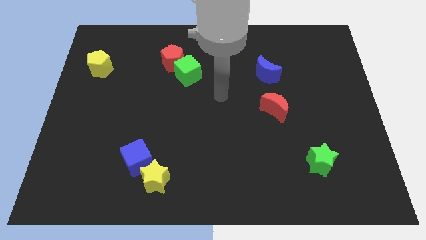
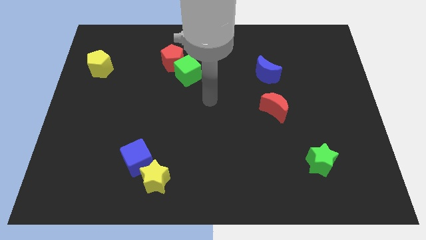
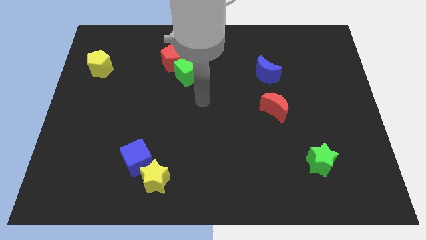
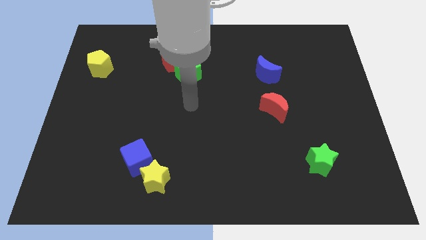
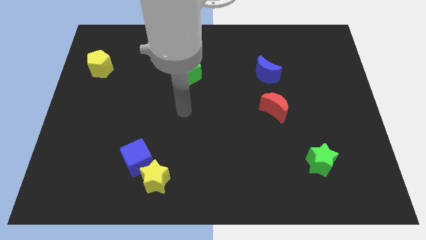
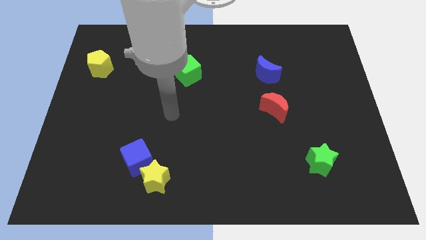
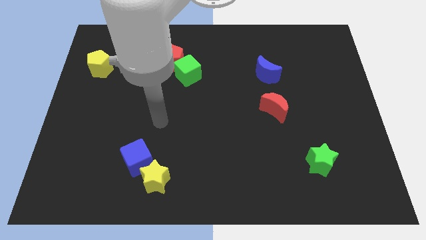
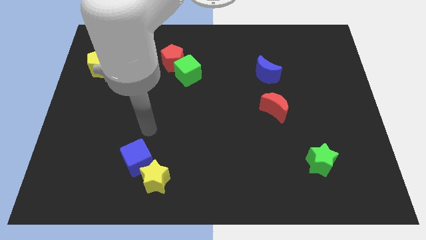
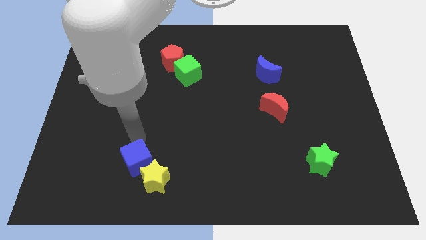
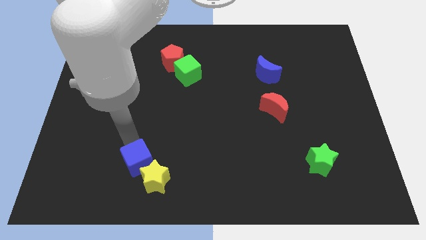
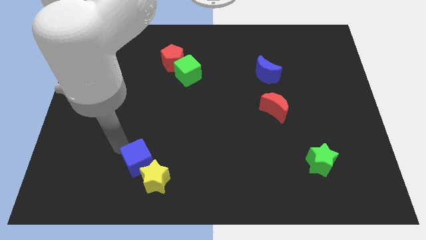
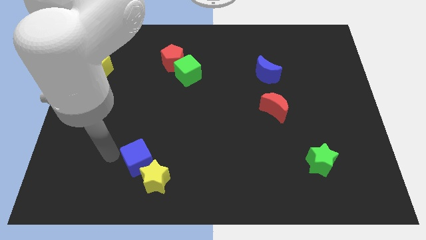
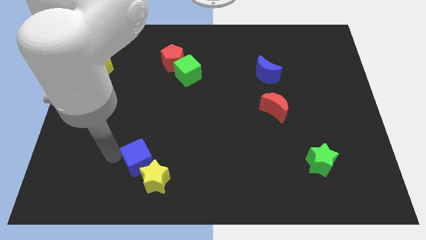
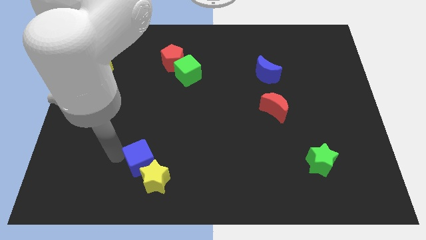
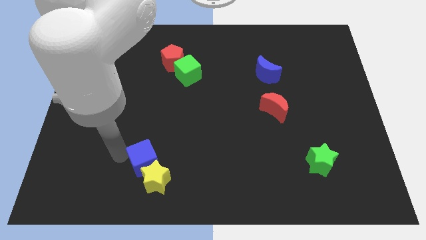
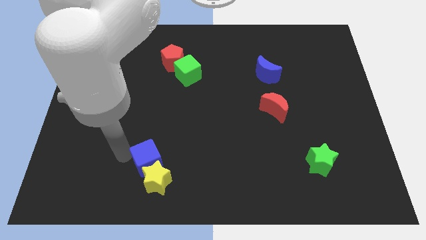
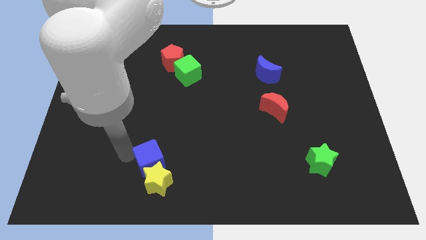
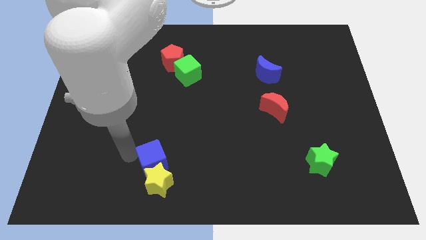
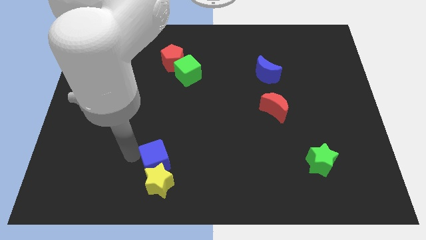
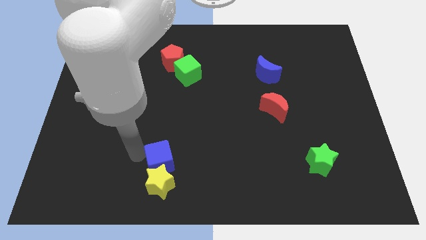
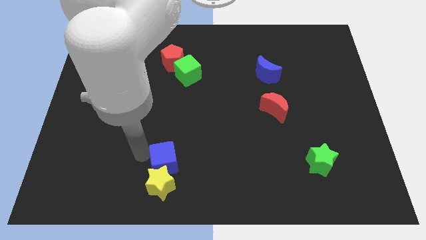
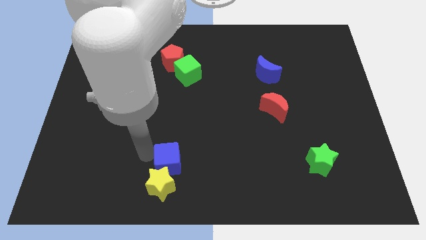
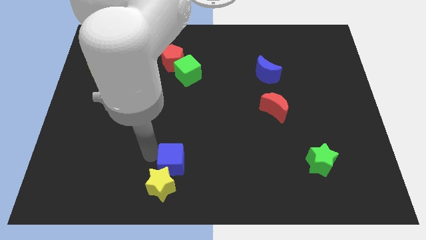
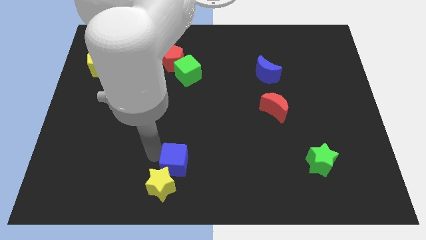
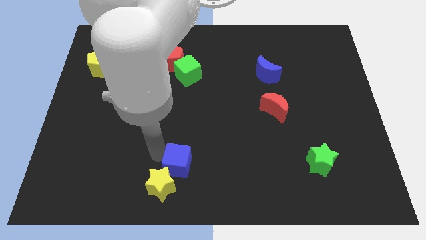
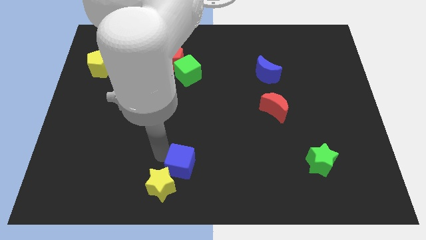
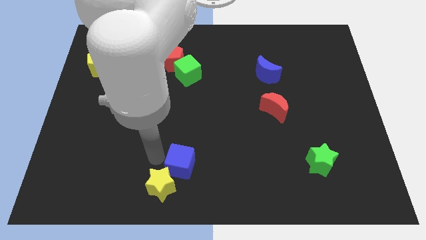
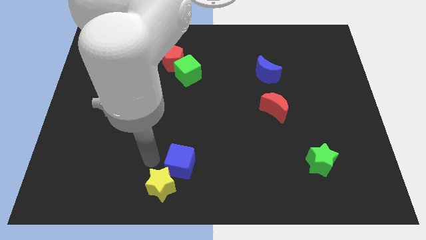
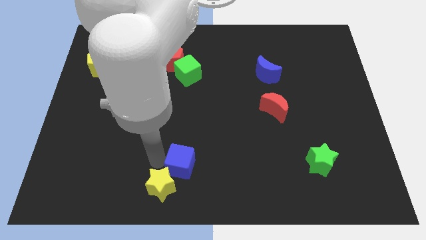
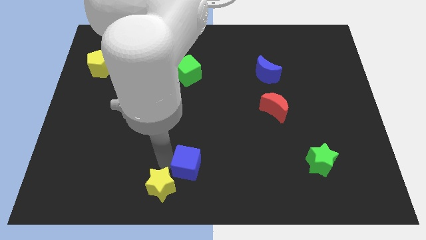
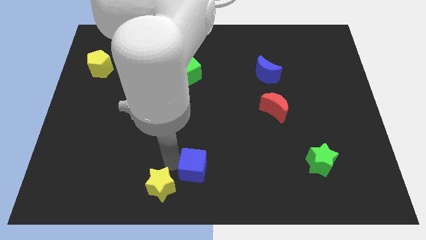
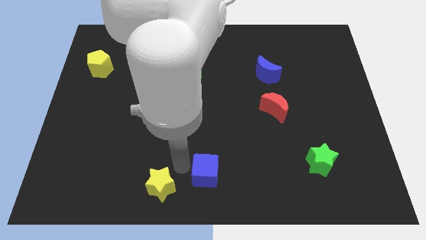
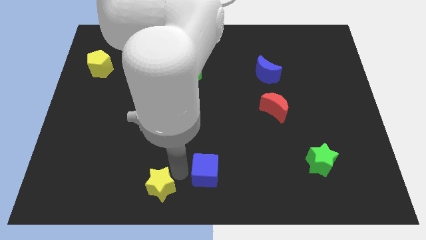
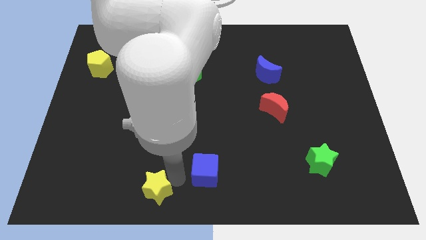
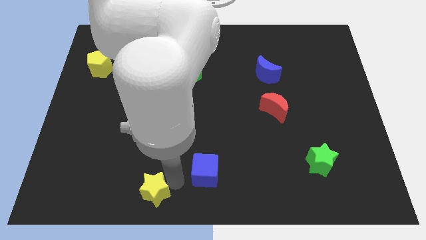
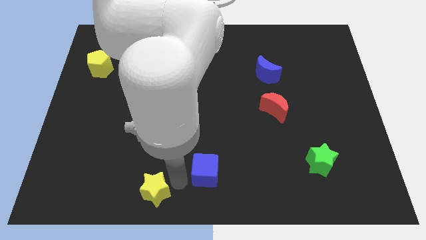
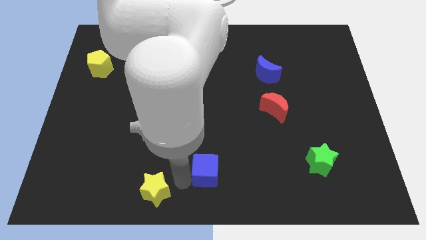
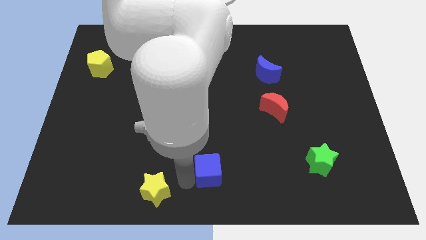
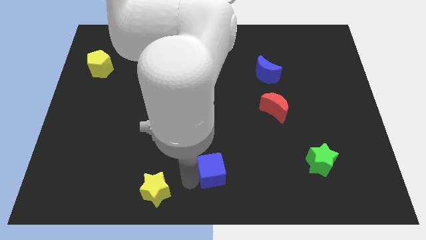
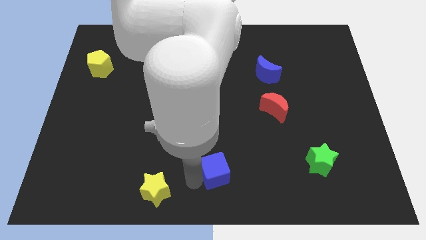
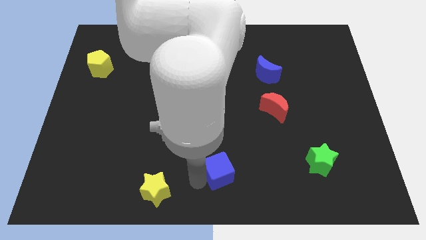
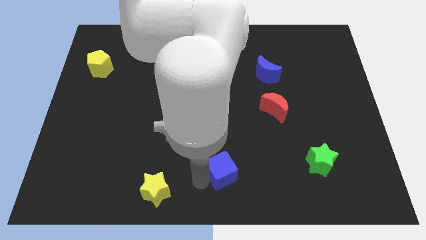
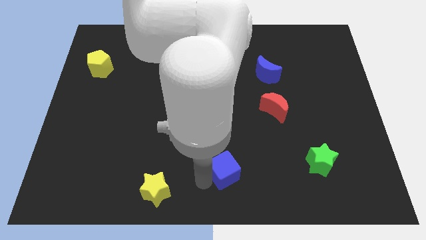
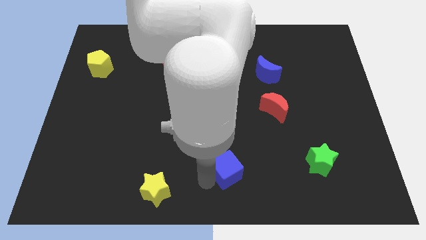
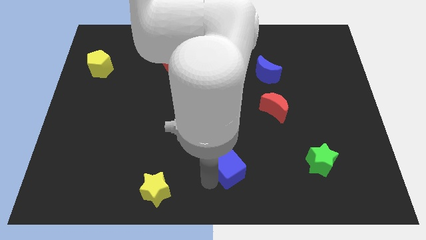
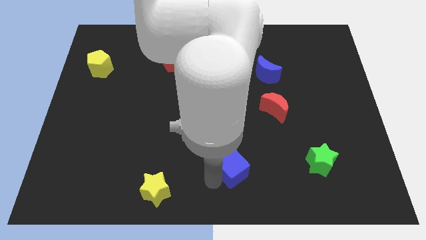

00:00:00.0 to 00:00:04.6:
push the blue cube to the right

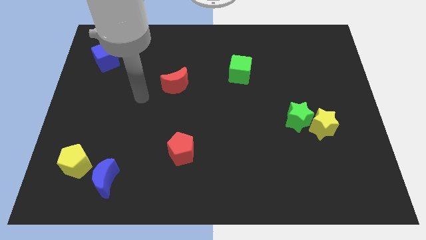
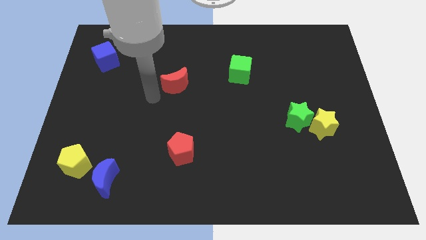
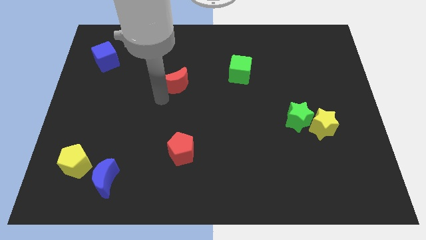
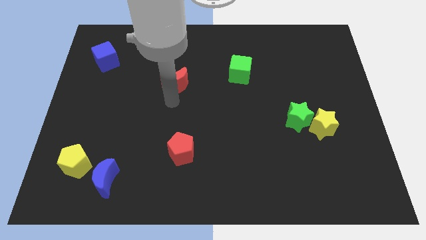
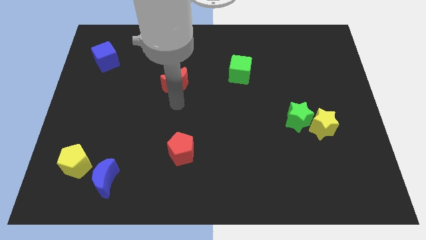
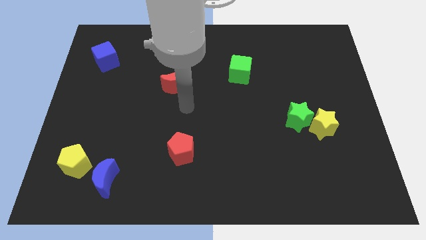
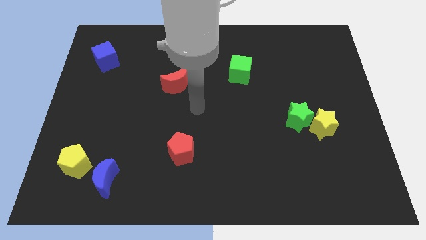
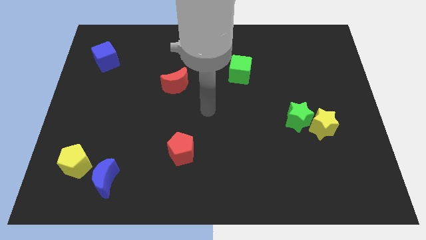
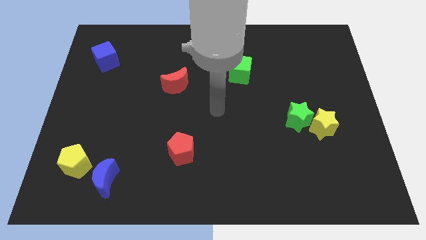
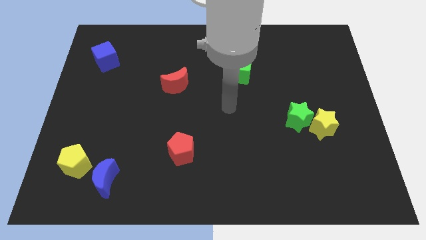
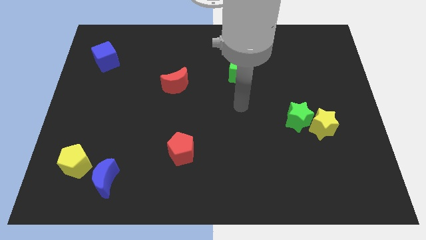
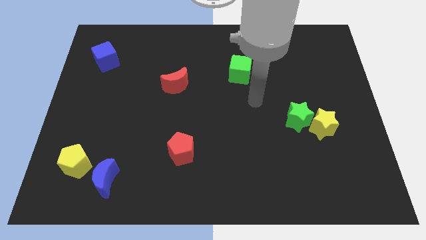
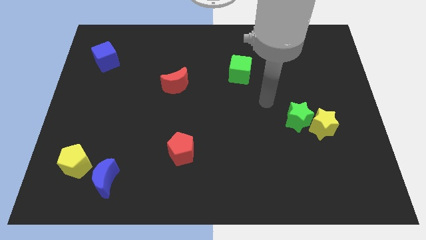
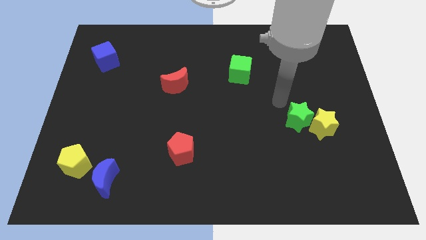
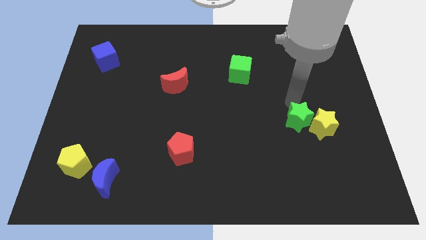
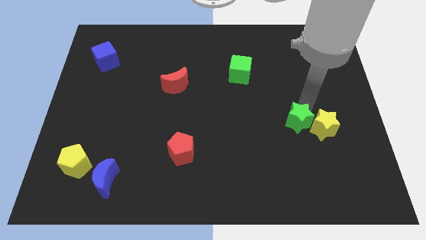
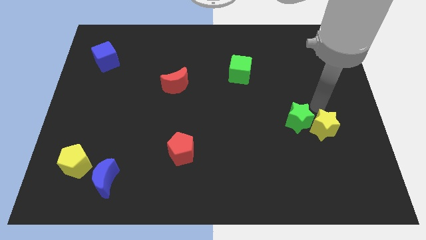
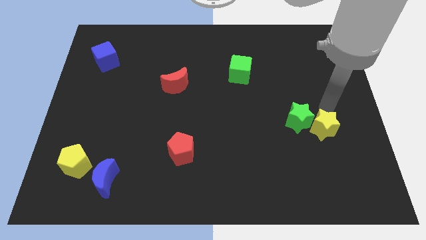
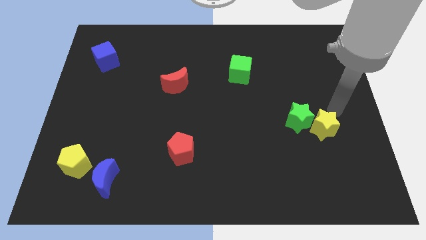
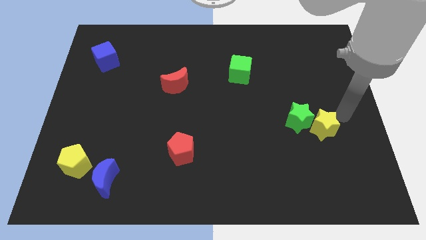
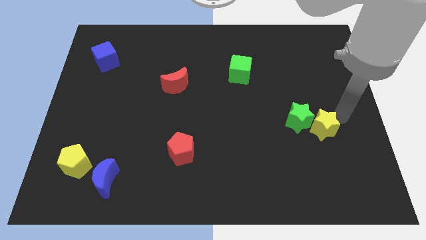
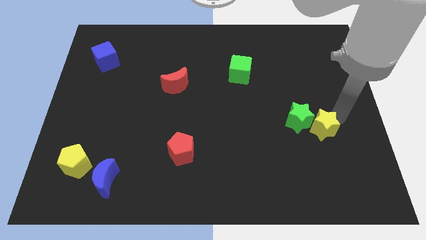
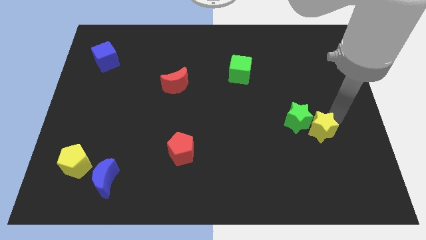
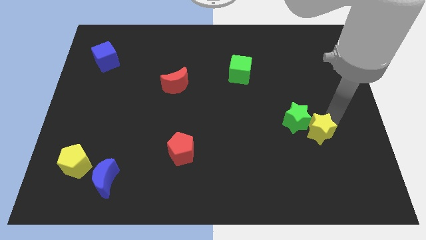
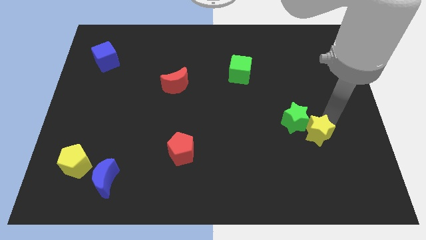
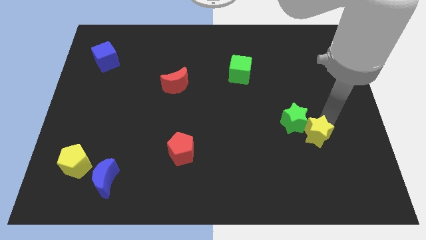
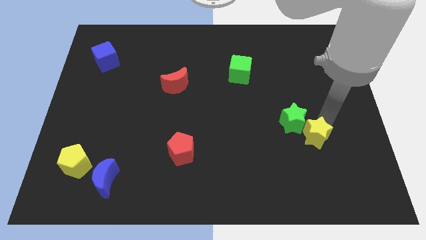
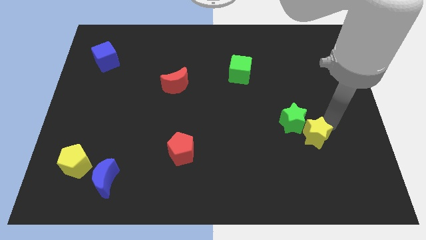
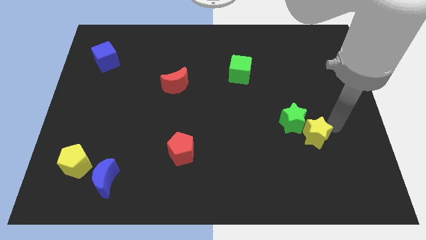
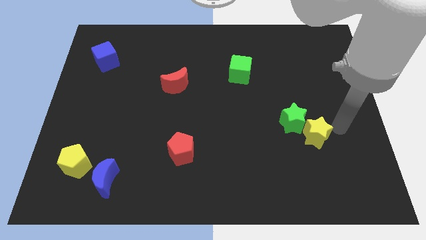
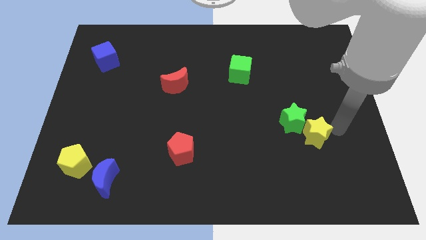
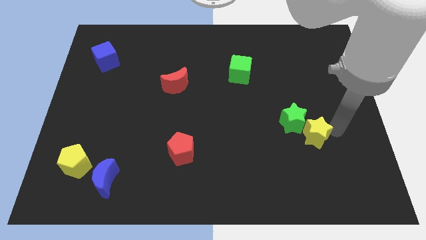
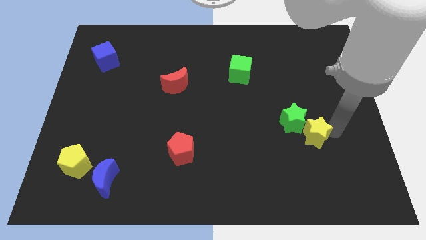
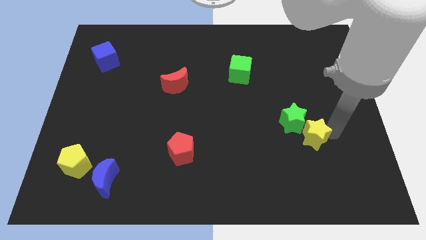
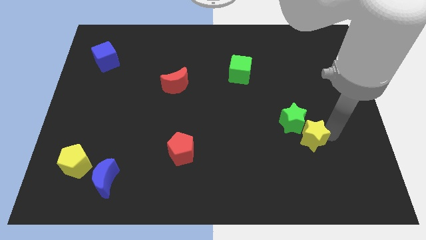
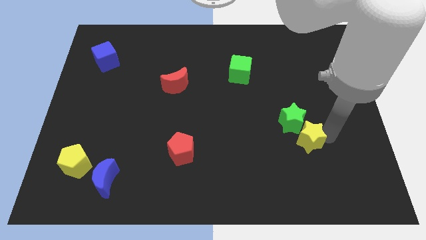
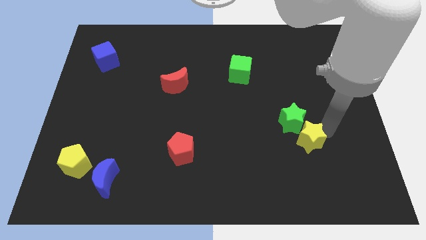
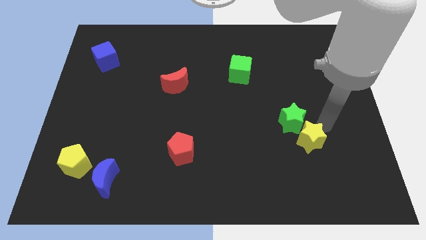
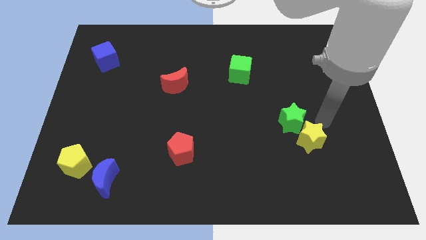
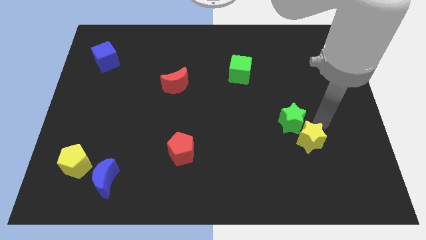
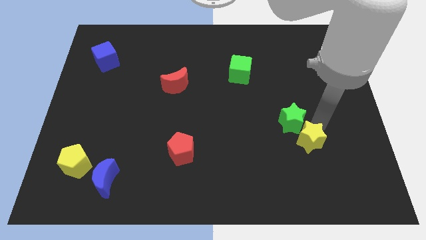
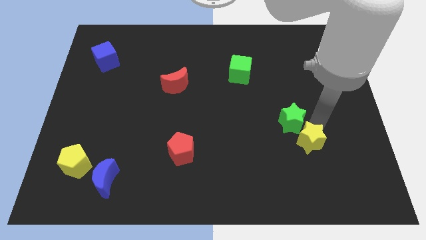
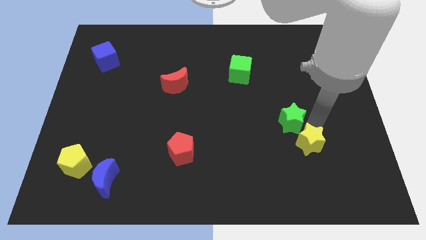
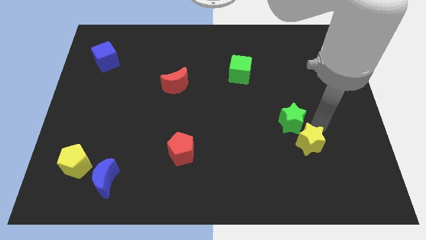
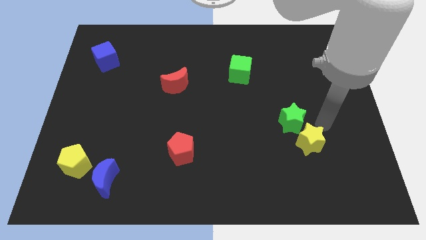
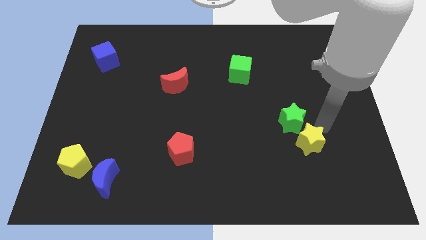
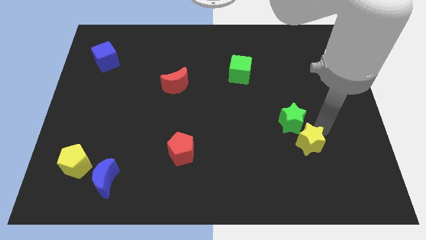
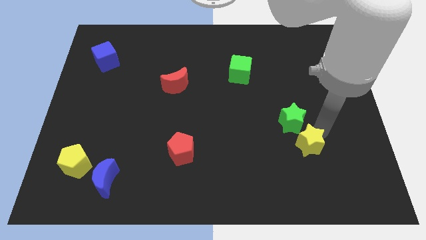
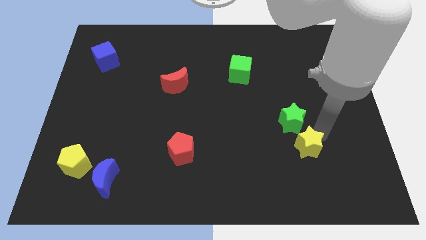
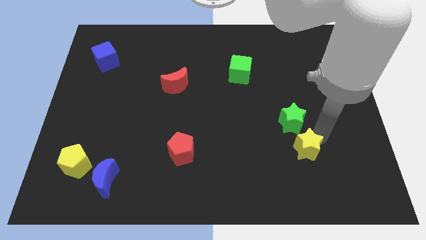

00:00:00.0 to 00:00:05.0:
slide the yellow star slightly down and then left
